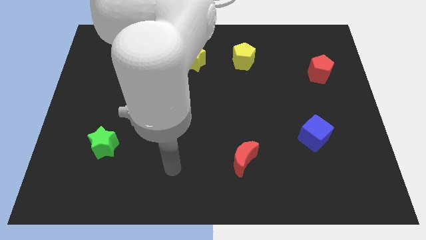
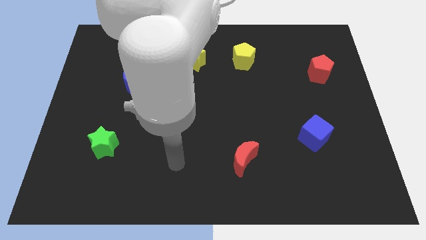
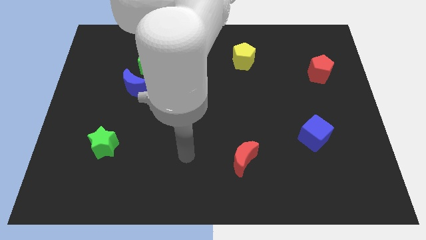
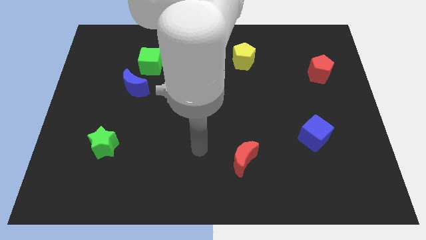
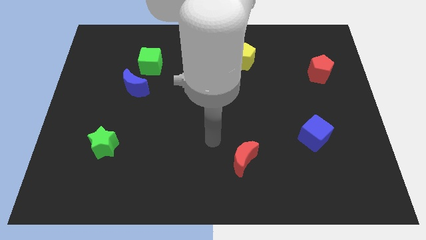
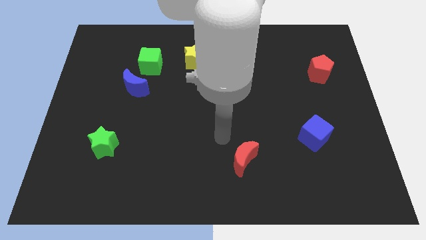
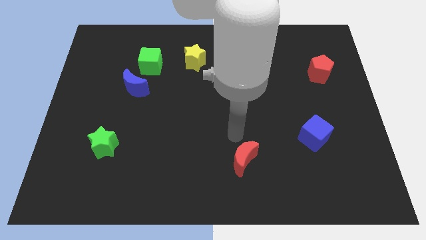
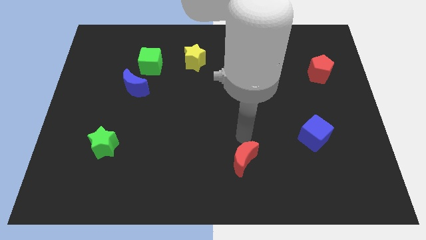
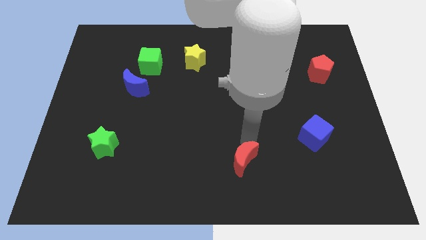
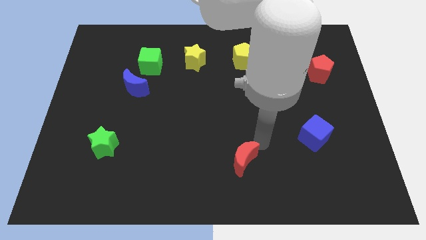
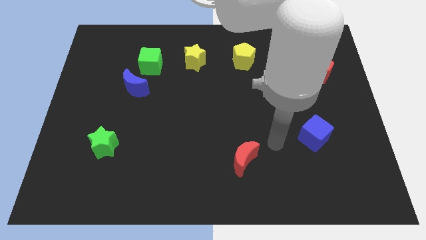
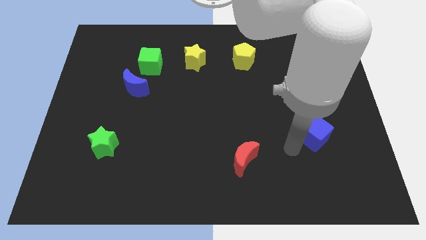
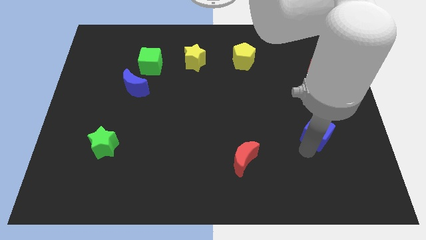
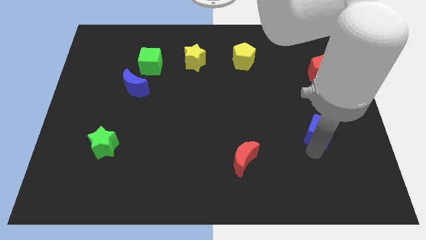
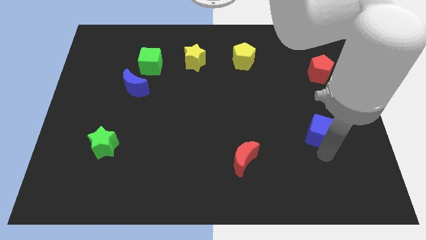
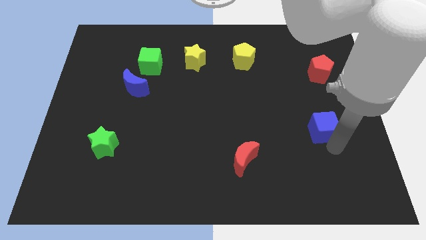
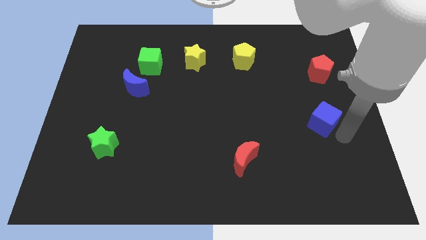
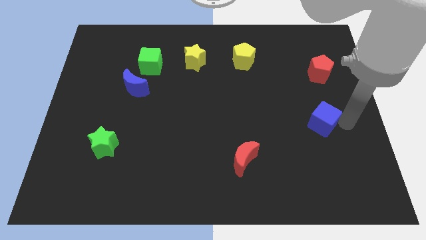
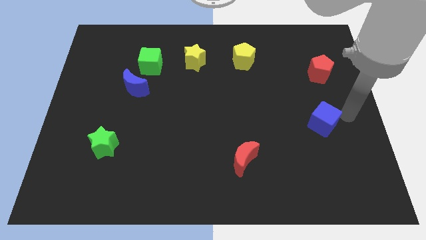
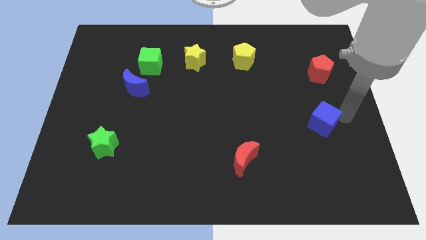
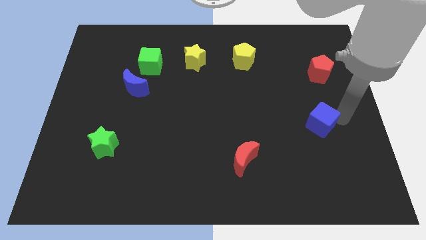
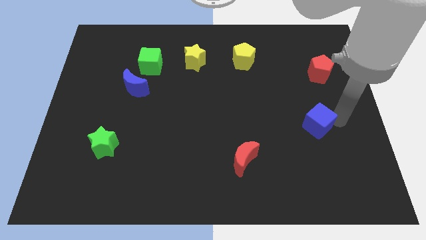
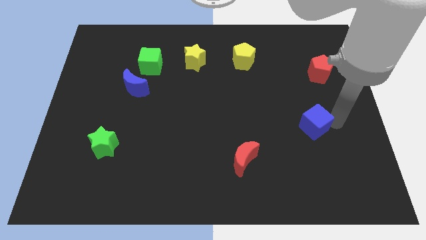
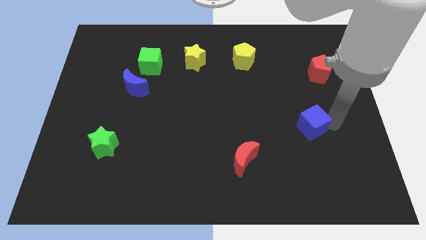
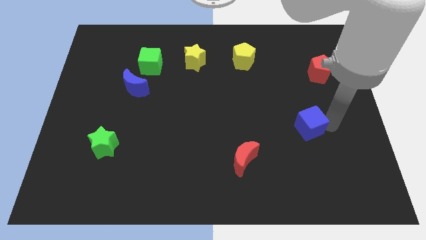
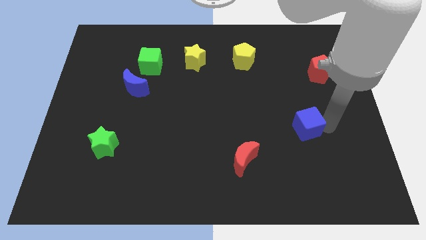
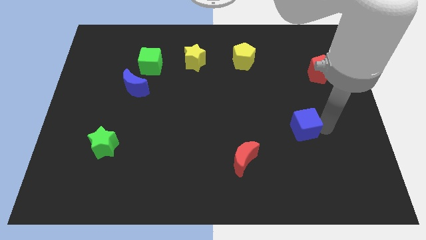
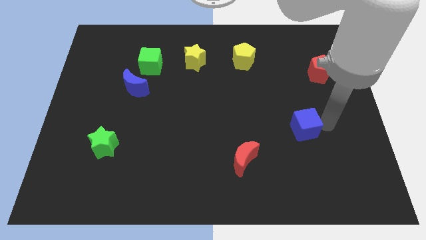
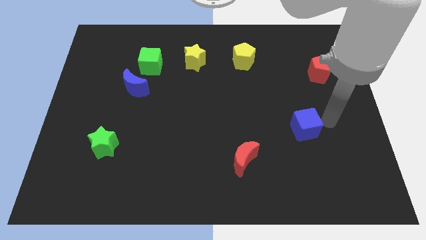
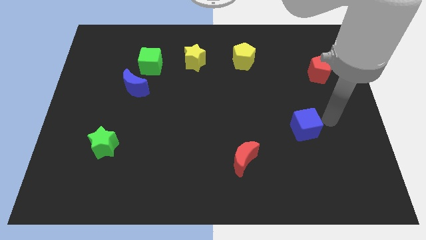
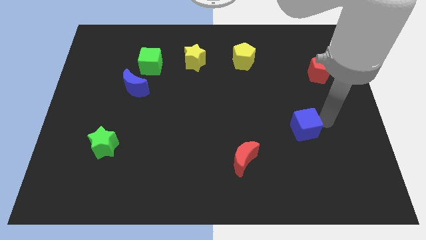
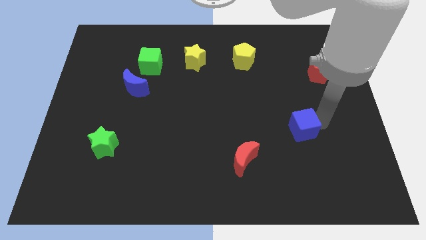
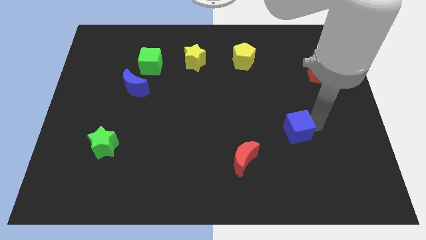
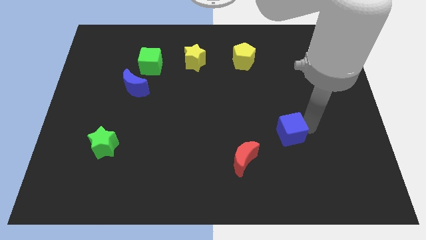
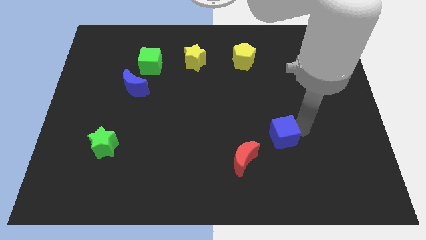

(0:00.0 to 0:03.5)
slightly move the blue cube to the left

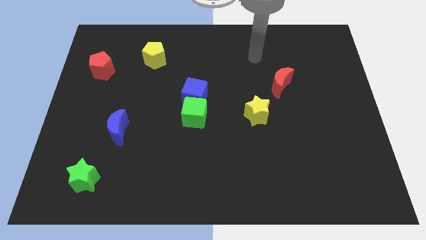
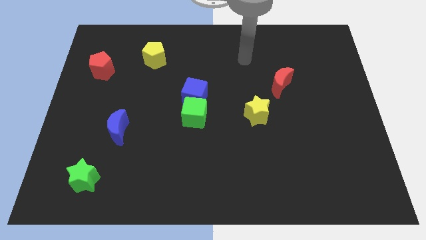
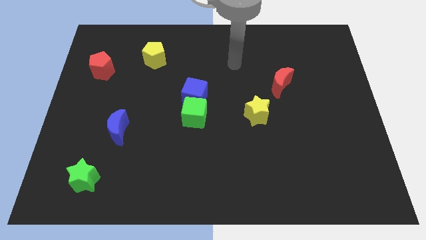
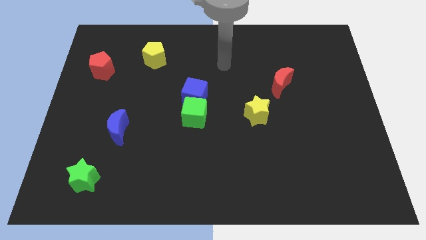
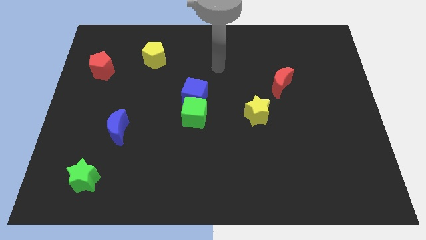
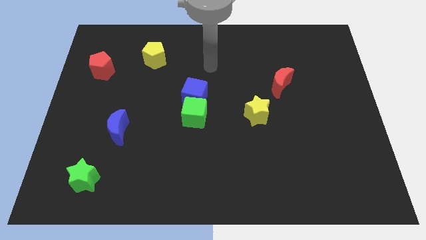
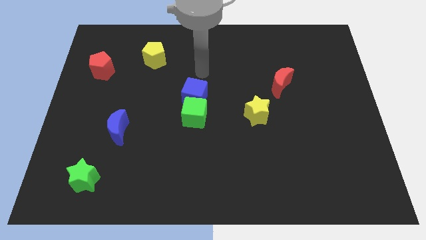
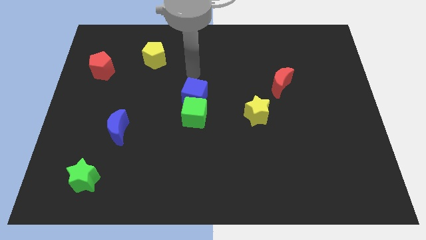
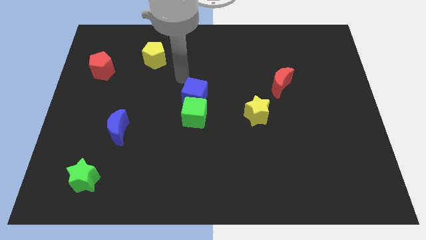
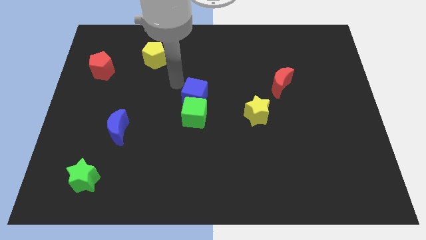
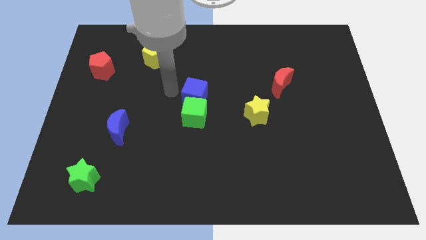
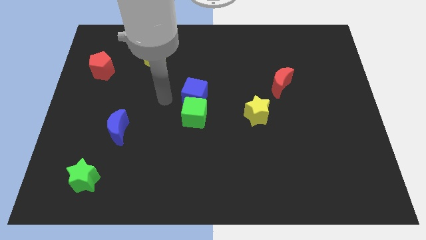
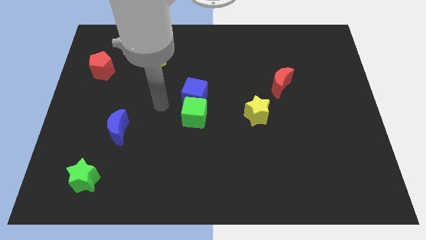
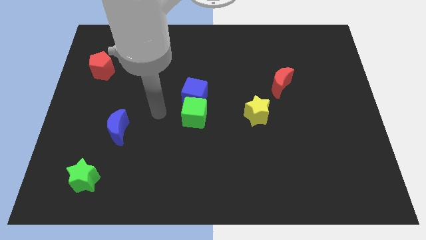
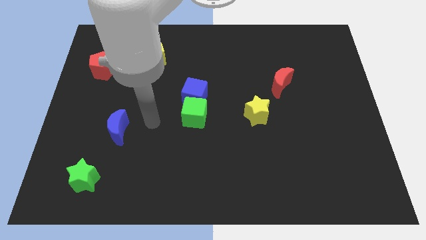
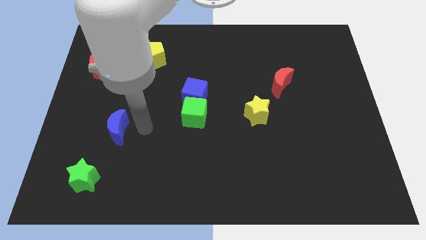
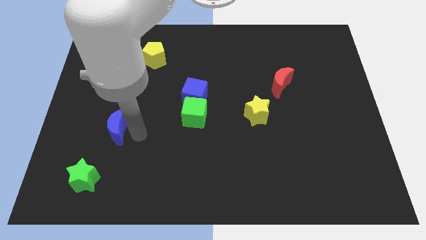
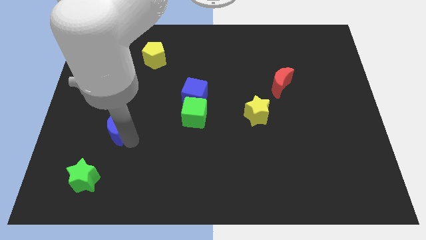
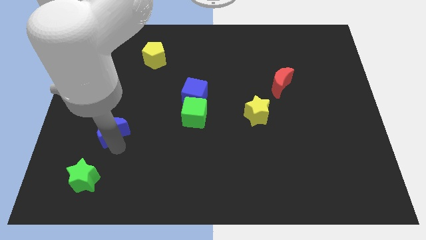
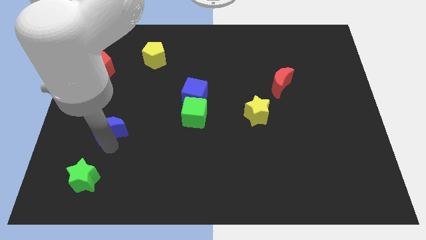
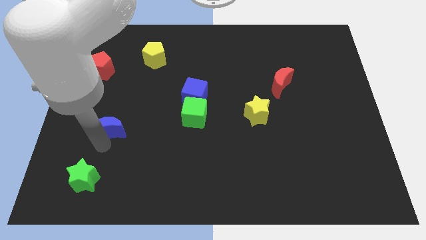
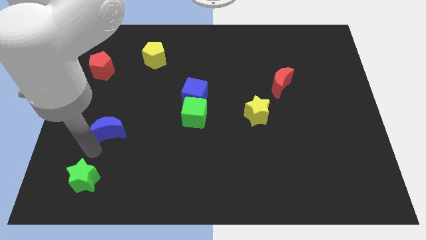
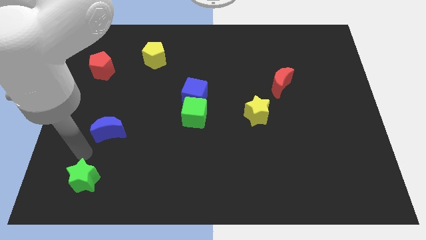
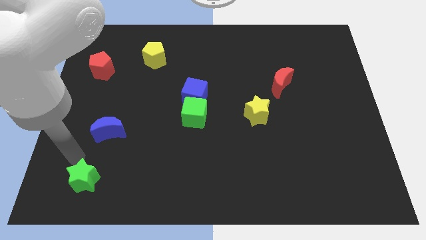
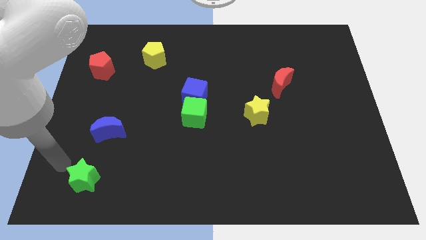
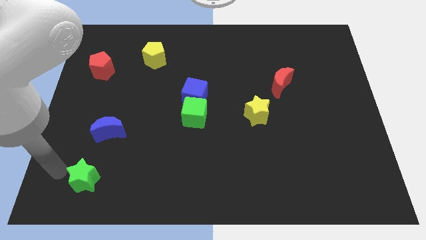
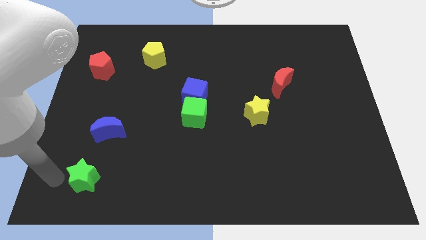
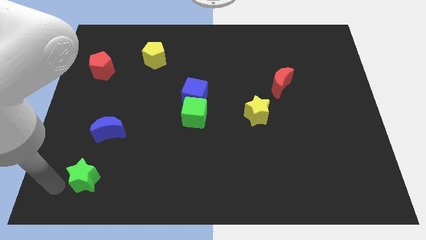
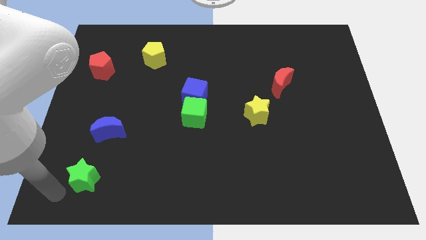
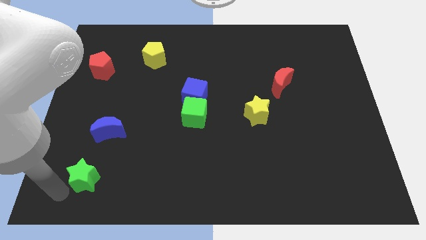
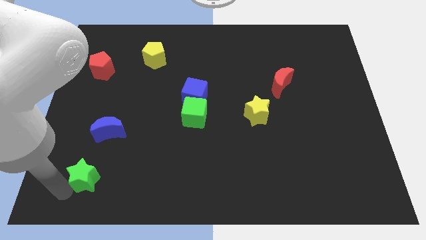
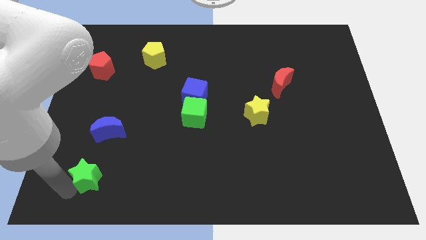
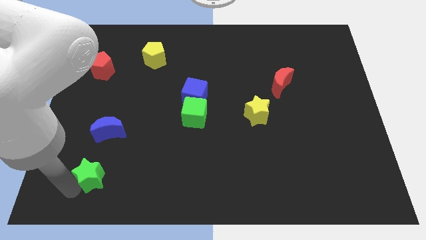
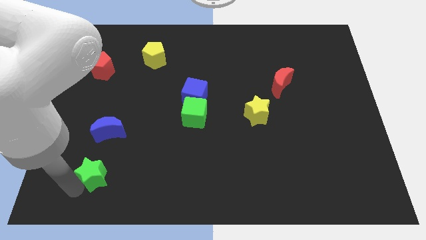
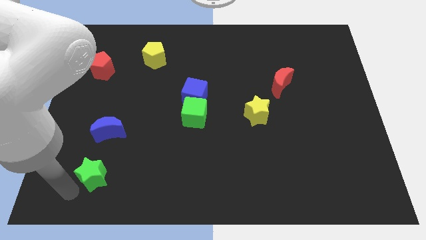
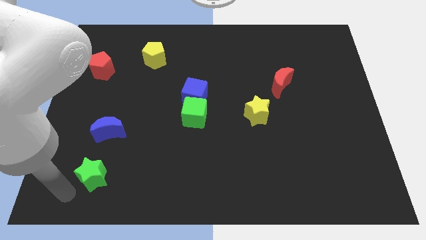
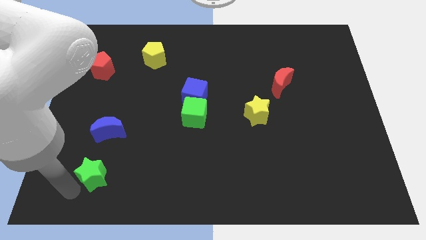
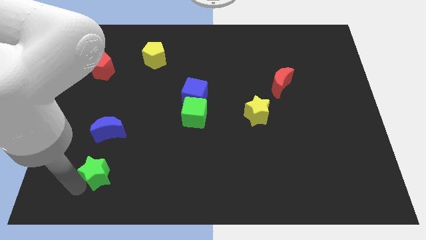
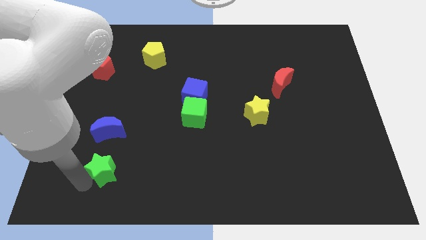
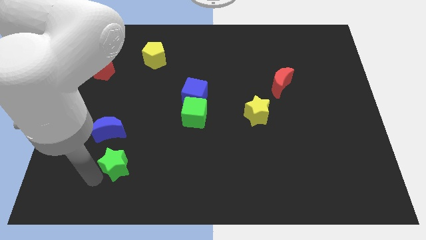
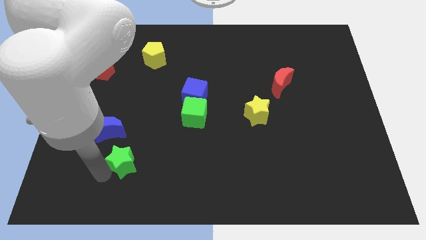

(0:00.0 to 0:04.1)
slightly push the green star upwards and to the right

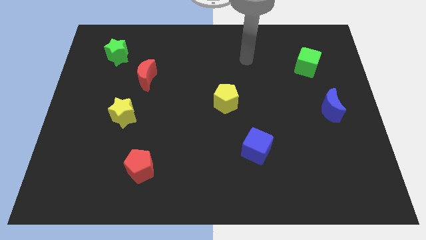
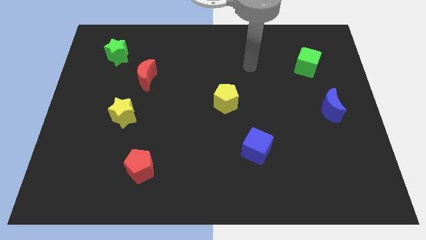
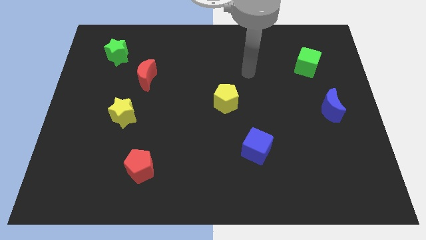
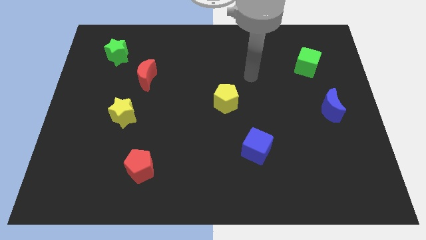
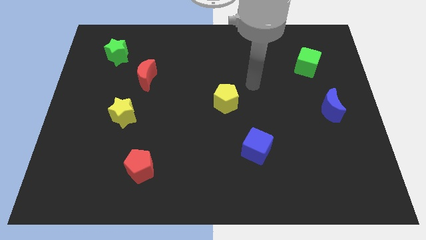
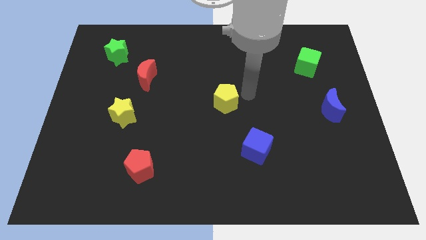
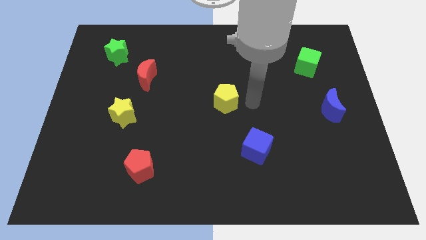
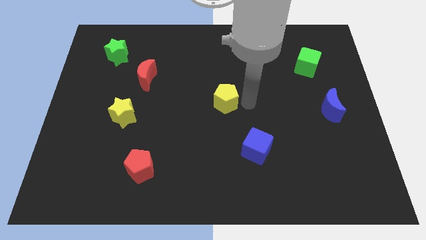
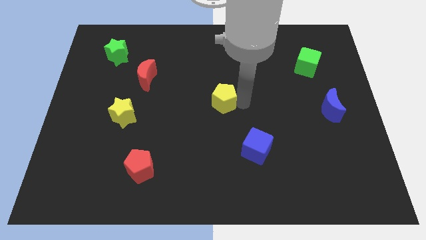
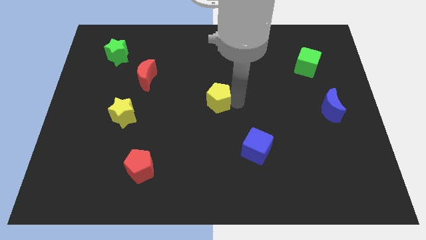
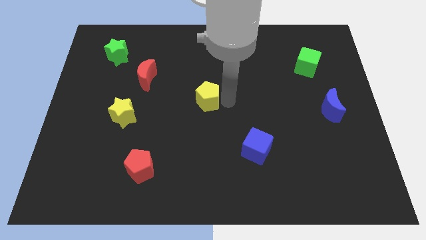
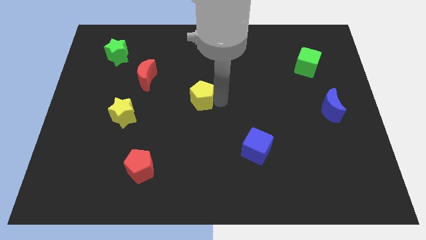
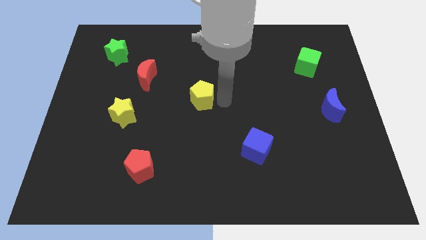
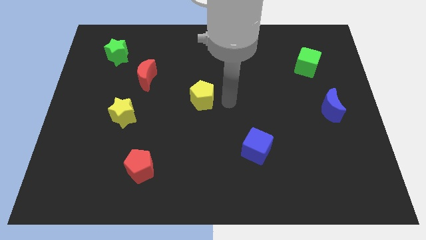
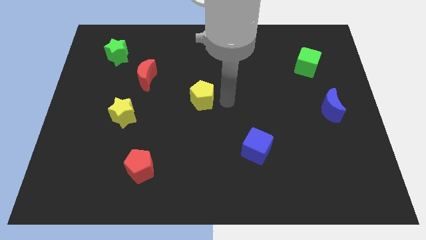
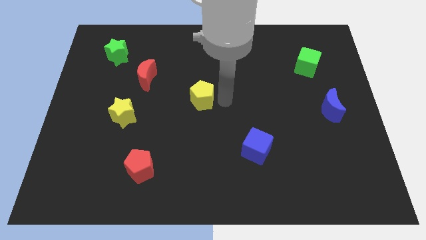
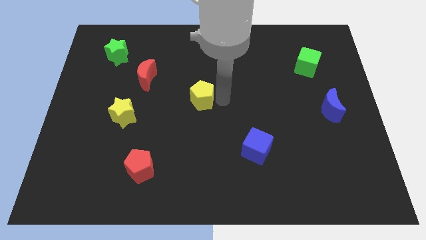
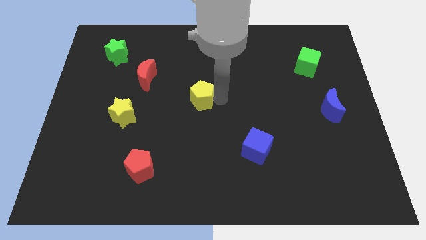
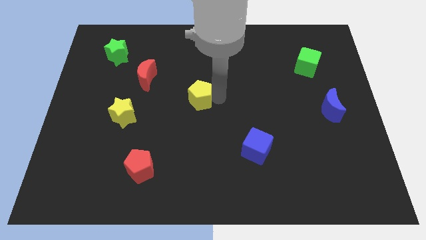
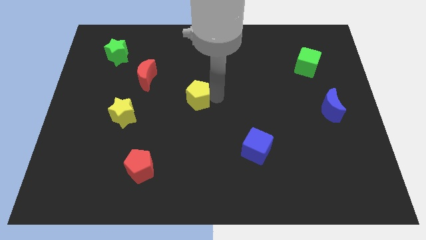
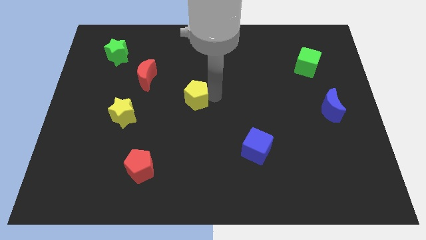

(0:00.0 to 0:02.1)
slightly slide the yellow pentagon left
